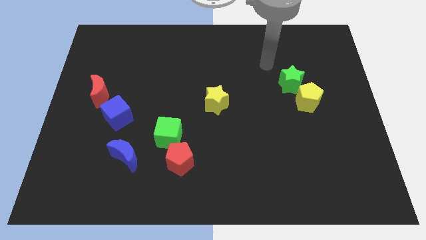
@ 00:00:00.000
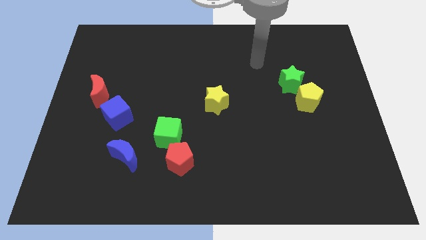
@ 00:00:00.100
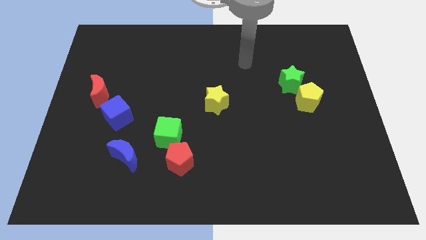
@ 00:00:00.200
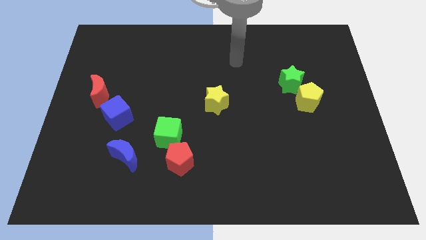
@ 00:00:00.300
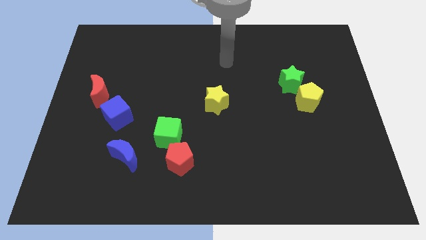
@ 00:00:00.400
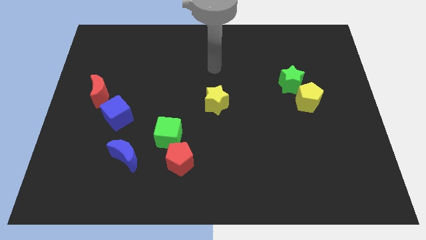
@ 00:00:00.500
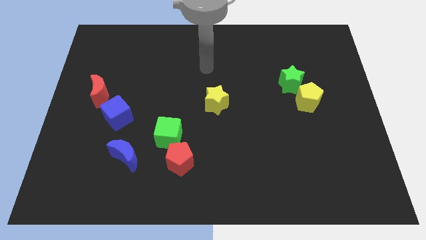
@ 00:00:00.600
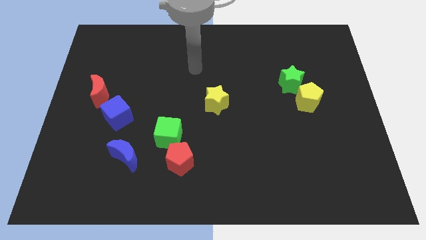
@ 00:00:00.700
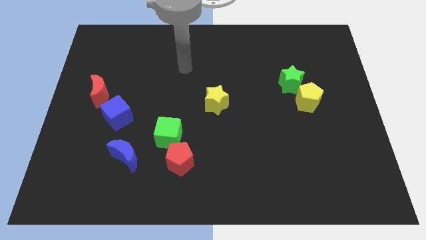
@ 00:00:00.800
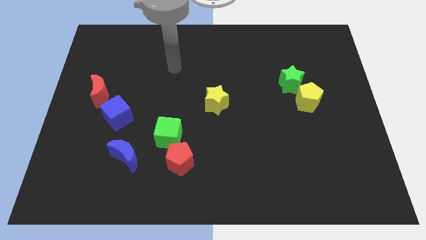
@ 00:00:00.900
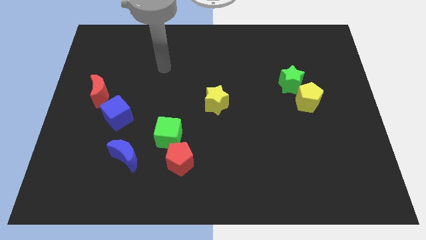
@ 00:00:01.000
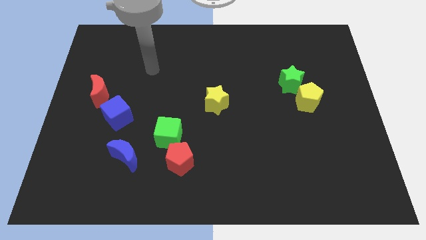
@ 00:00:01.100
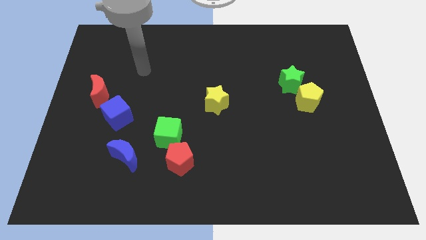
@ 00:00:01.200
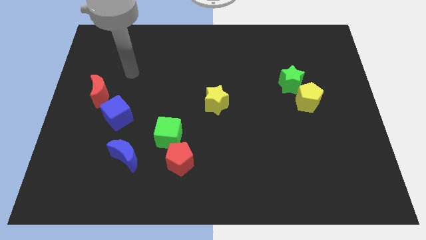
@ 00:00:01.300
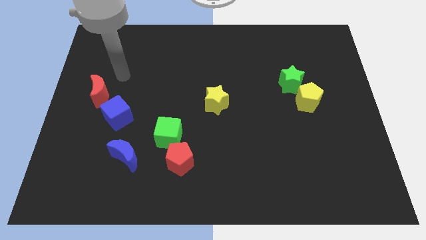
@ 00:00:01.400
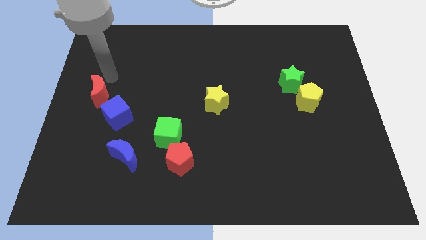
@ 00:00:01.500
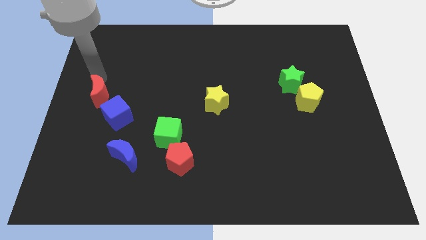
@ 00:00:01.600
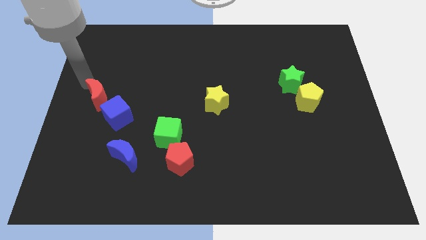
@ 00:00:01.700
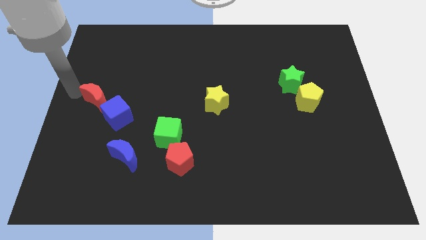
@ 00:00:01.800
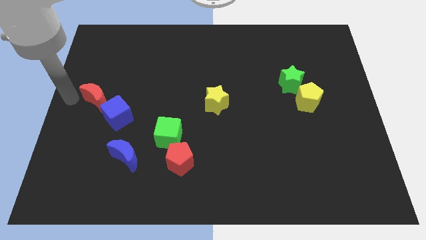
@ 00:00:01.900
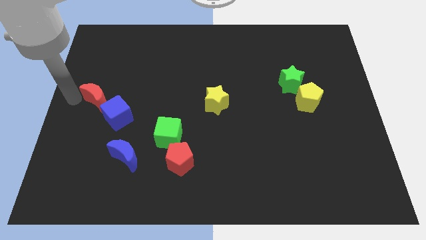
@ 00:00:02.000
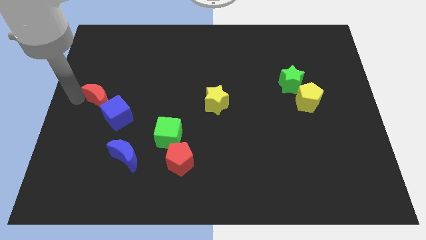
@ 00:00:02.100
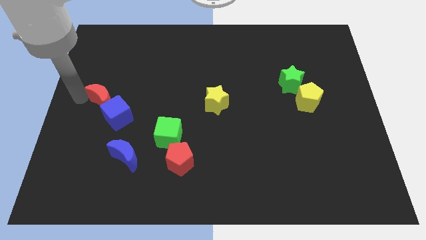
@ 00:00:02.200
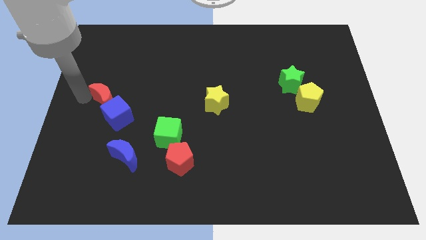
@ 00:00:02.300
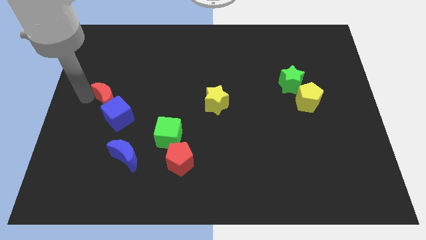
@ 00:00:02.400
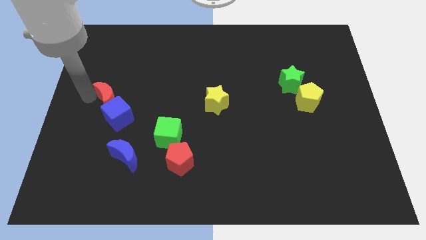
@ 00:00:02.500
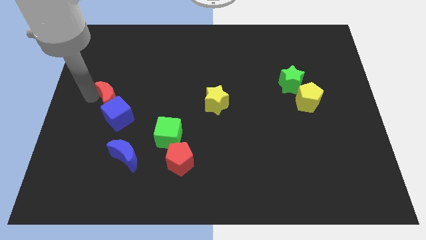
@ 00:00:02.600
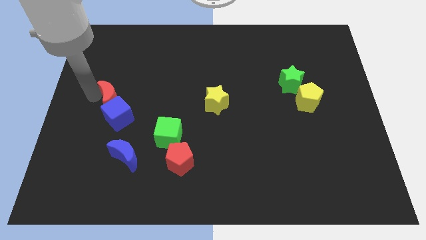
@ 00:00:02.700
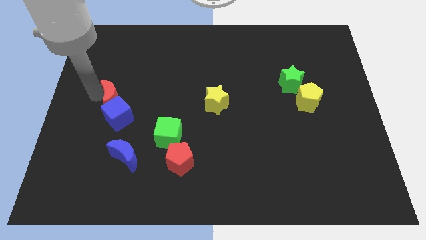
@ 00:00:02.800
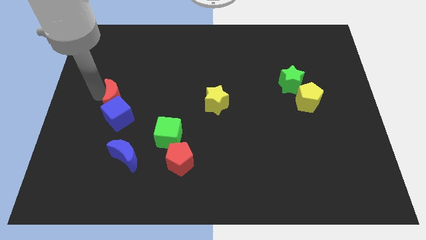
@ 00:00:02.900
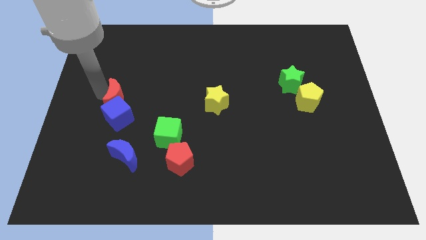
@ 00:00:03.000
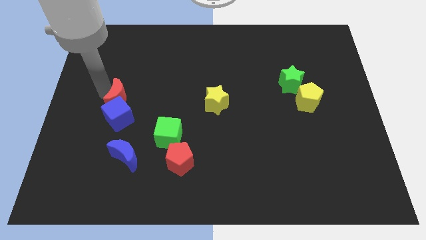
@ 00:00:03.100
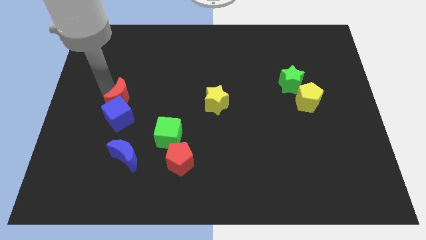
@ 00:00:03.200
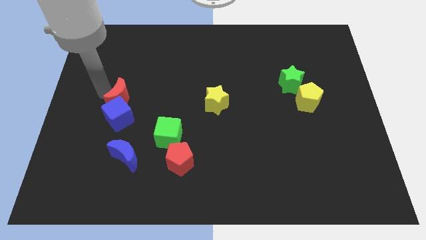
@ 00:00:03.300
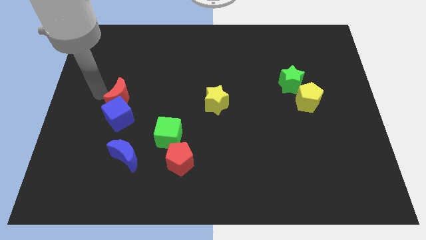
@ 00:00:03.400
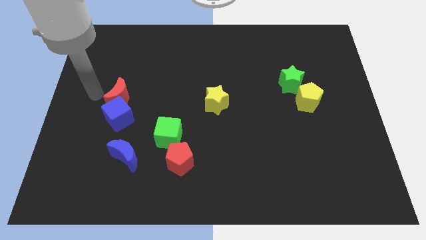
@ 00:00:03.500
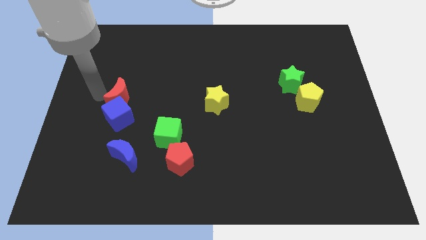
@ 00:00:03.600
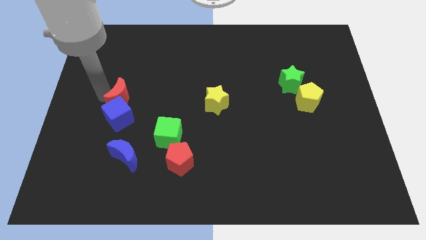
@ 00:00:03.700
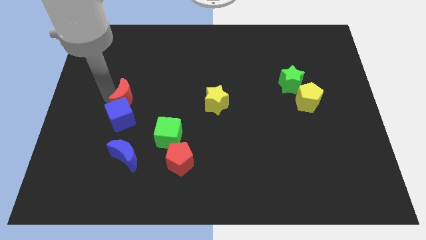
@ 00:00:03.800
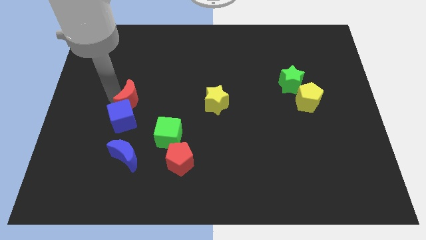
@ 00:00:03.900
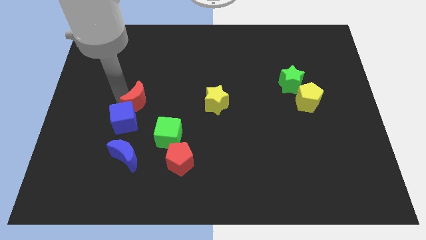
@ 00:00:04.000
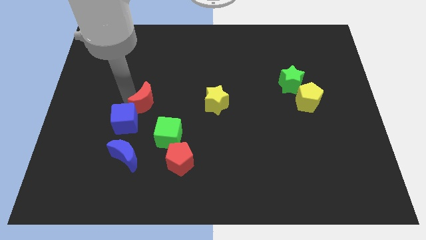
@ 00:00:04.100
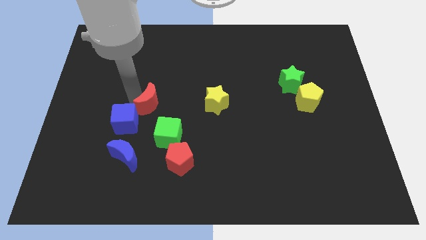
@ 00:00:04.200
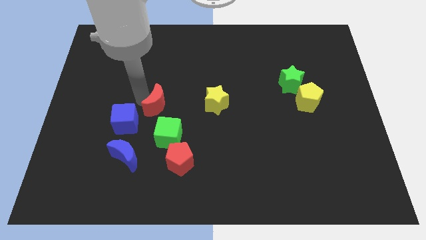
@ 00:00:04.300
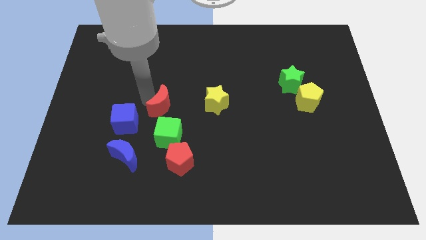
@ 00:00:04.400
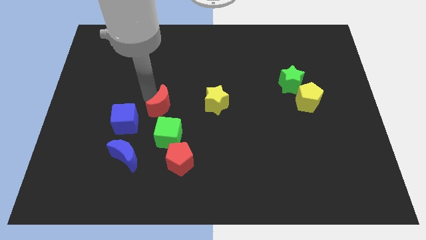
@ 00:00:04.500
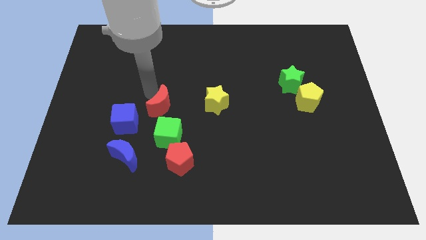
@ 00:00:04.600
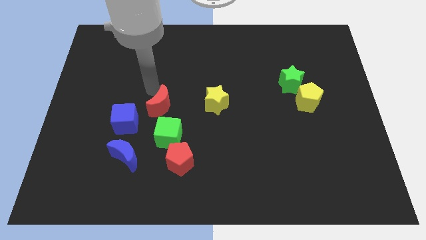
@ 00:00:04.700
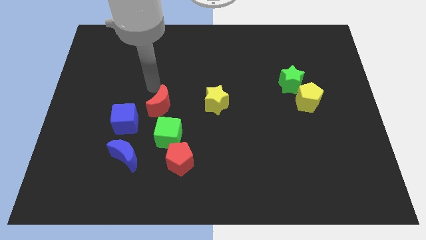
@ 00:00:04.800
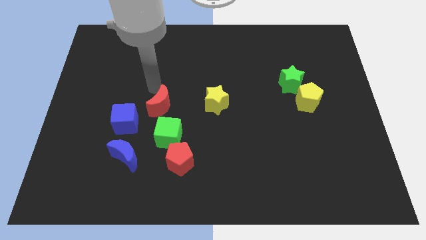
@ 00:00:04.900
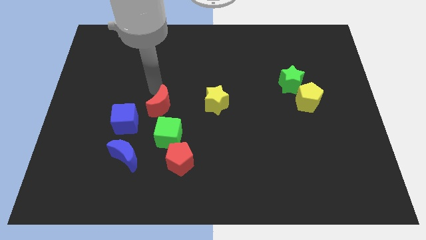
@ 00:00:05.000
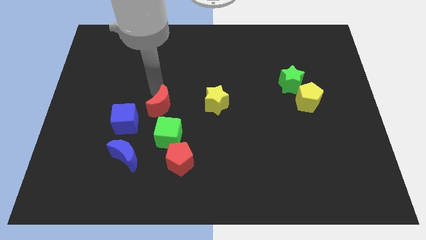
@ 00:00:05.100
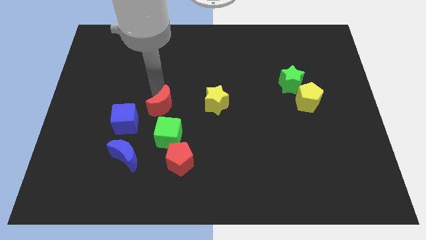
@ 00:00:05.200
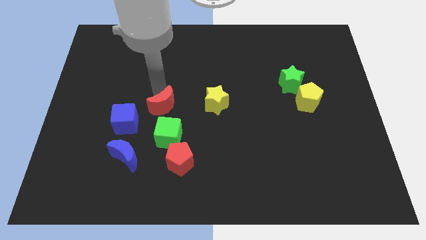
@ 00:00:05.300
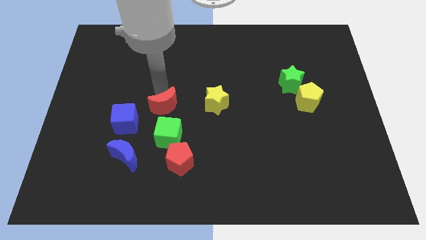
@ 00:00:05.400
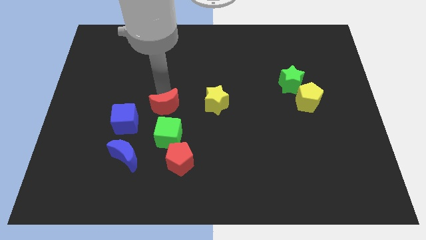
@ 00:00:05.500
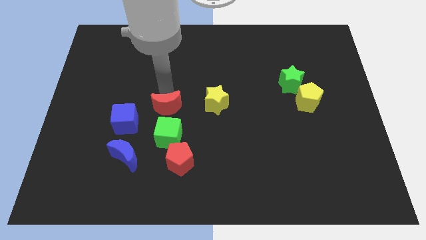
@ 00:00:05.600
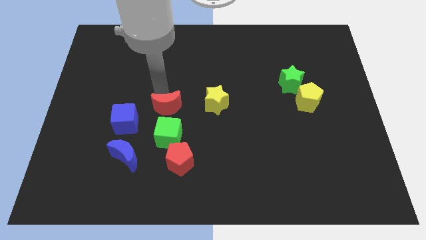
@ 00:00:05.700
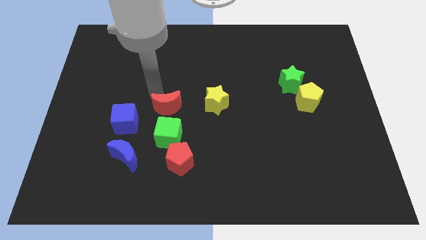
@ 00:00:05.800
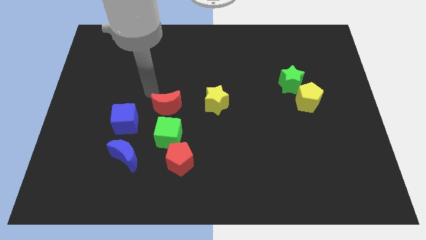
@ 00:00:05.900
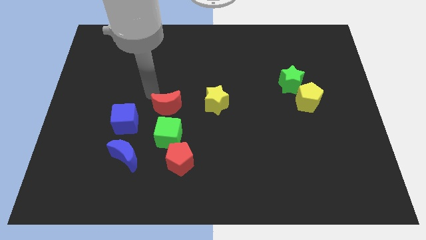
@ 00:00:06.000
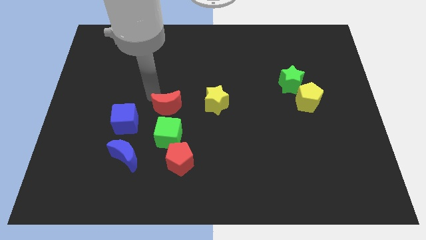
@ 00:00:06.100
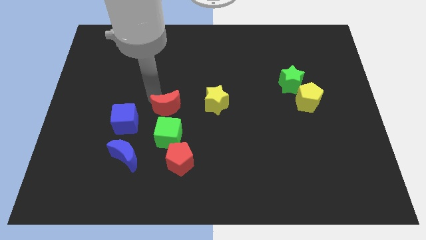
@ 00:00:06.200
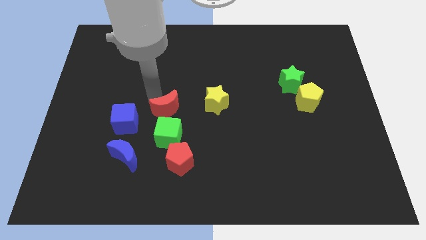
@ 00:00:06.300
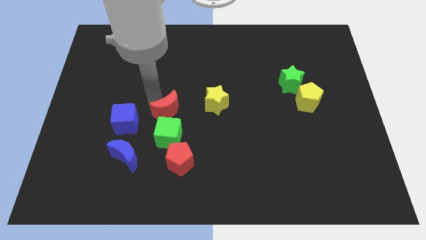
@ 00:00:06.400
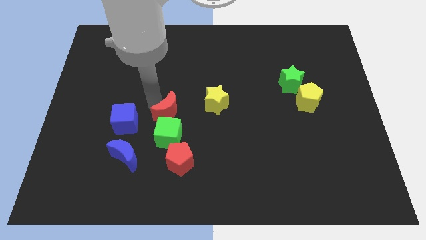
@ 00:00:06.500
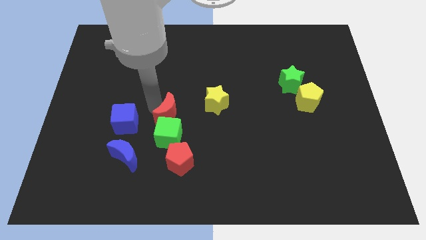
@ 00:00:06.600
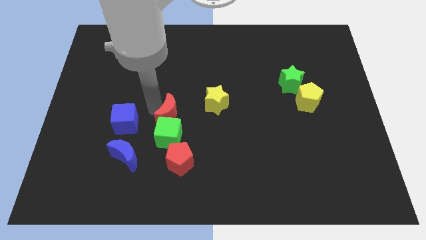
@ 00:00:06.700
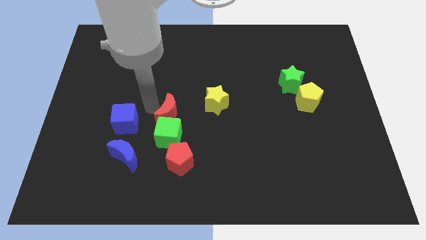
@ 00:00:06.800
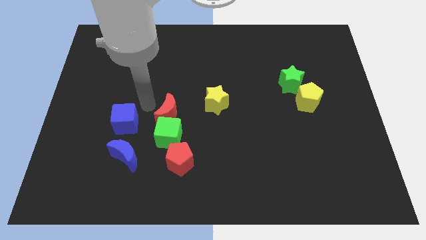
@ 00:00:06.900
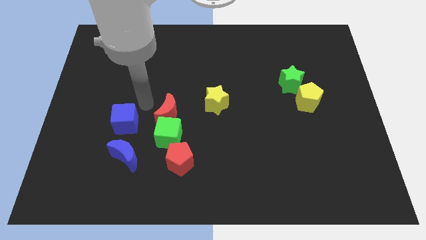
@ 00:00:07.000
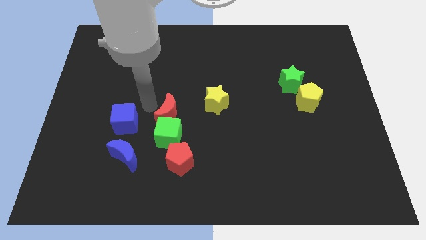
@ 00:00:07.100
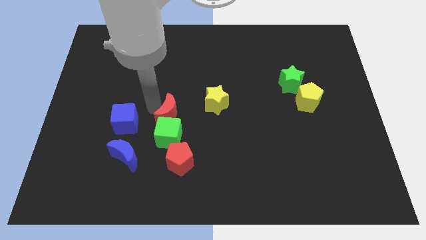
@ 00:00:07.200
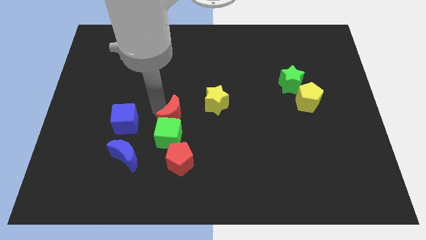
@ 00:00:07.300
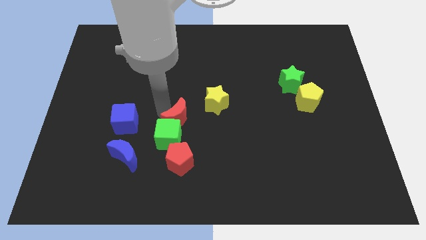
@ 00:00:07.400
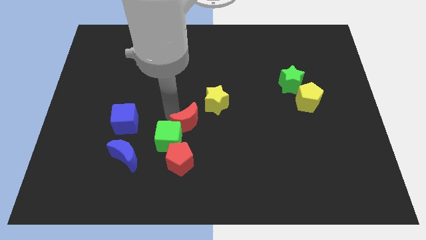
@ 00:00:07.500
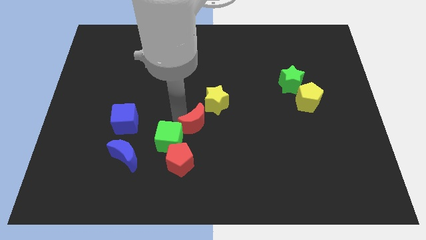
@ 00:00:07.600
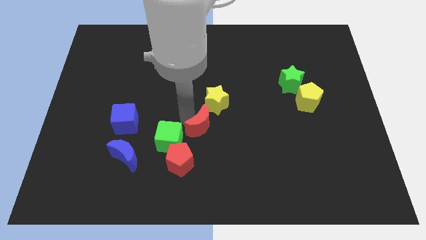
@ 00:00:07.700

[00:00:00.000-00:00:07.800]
put the red moon diagonally up and to the right of the red pentagon
